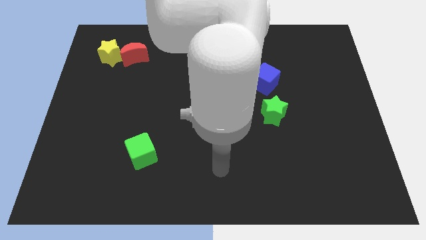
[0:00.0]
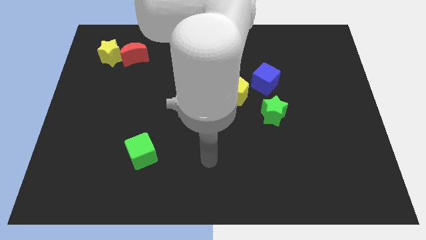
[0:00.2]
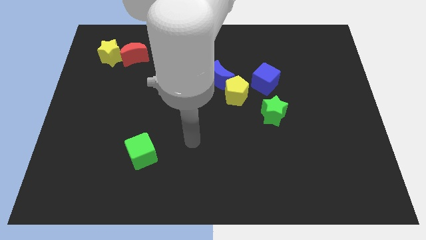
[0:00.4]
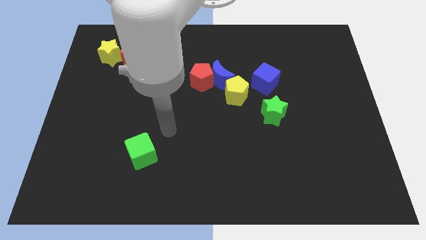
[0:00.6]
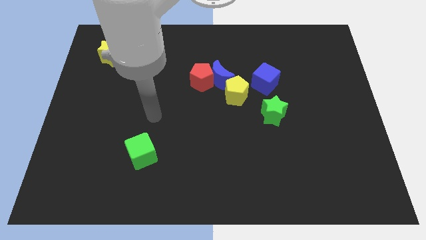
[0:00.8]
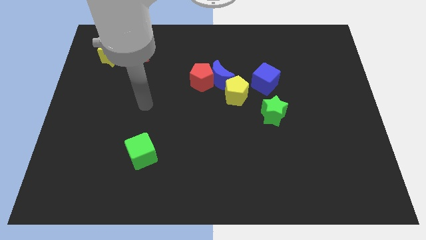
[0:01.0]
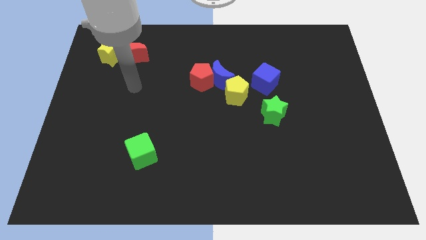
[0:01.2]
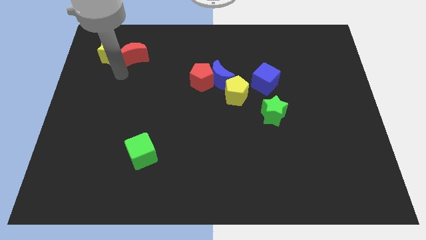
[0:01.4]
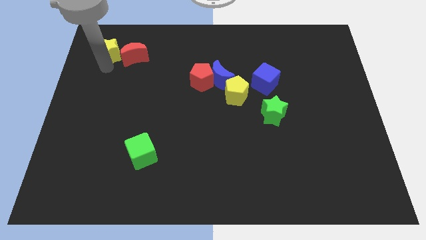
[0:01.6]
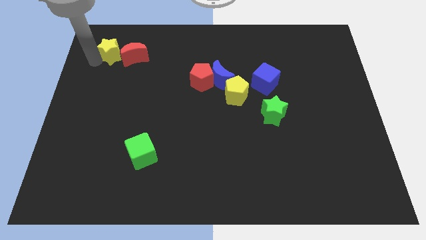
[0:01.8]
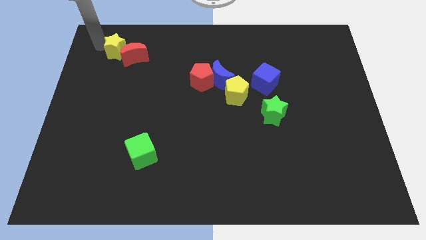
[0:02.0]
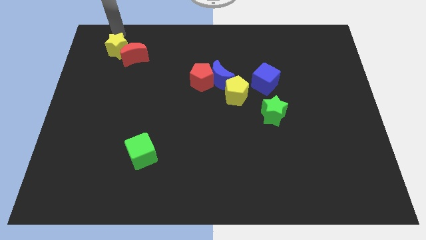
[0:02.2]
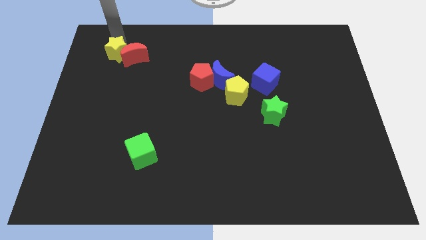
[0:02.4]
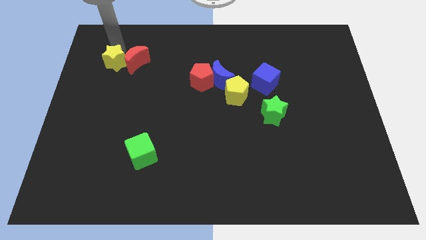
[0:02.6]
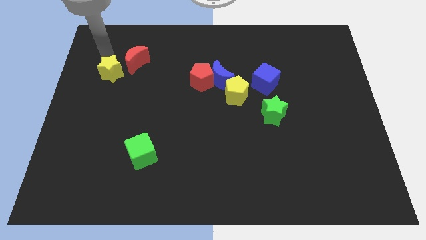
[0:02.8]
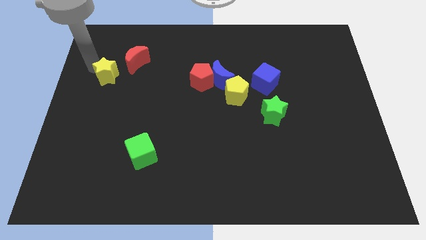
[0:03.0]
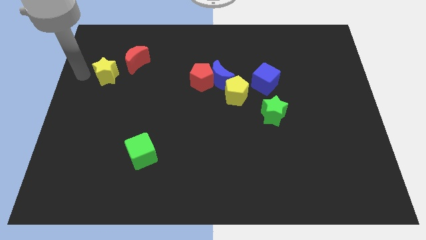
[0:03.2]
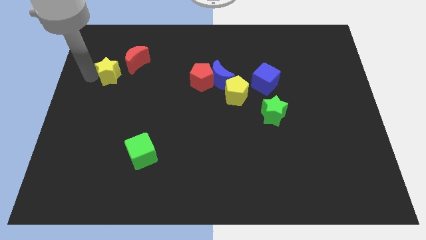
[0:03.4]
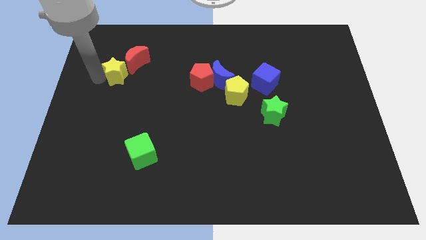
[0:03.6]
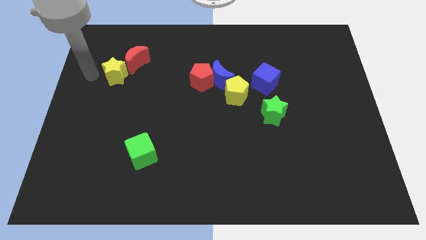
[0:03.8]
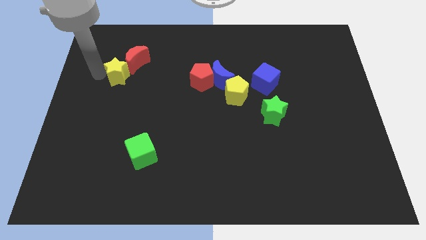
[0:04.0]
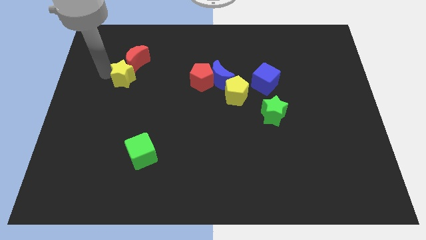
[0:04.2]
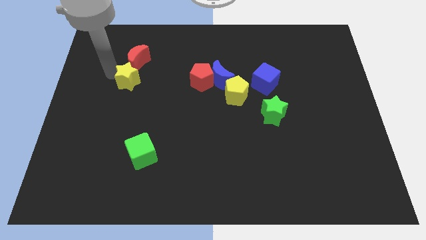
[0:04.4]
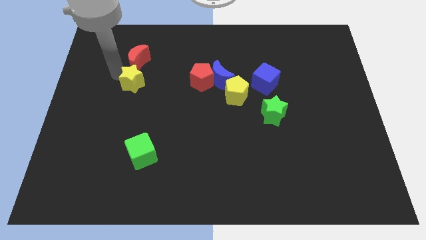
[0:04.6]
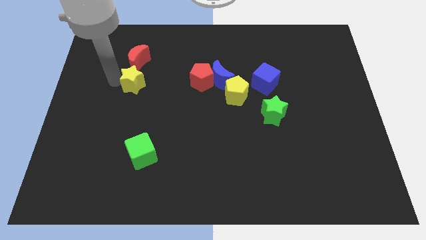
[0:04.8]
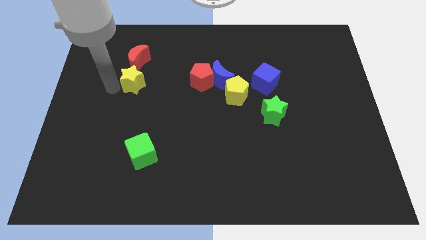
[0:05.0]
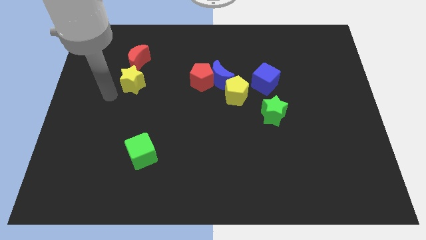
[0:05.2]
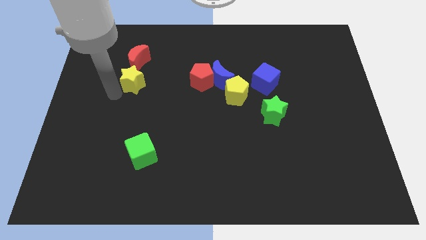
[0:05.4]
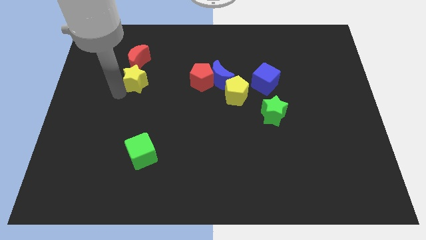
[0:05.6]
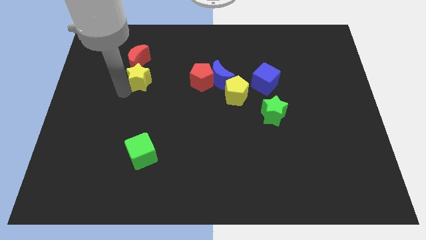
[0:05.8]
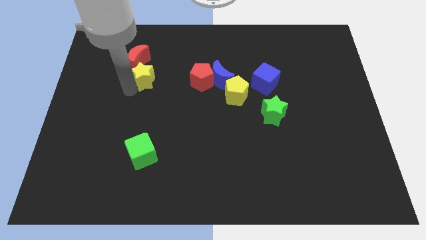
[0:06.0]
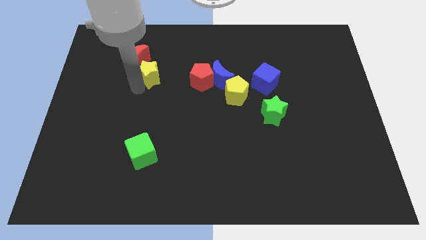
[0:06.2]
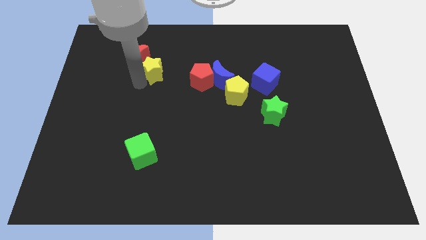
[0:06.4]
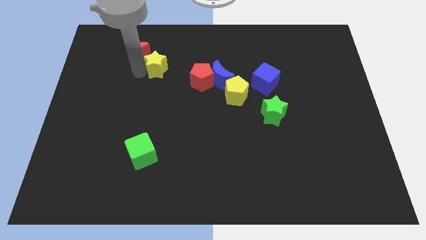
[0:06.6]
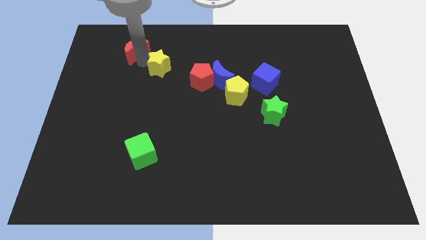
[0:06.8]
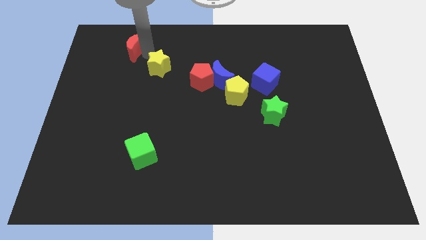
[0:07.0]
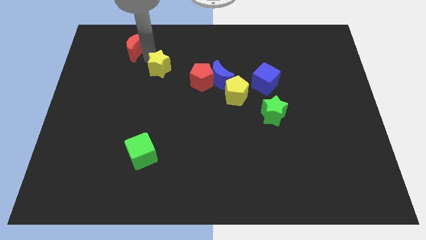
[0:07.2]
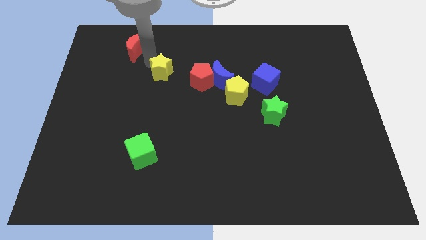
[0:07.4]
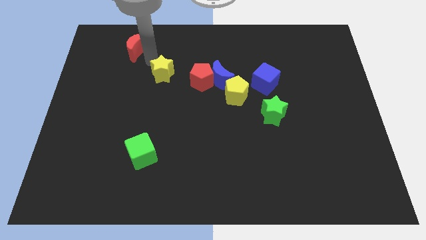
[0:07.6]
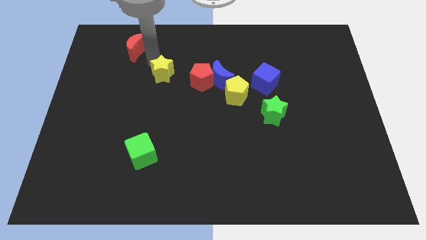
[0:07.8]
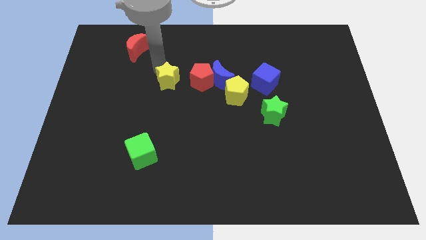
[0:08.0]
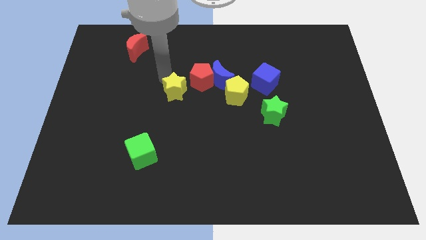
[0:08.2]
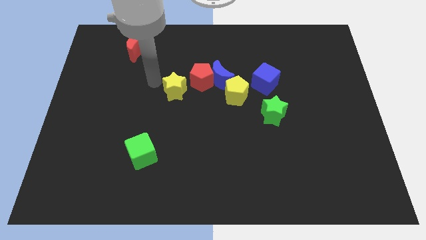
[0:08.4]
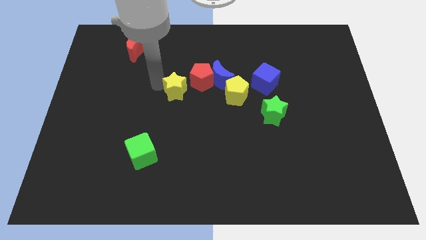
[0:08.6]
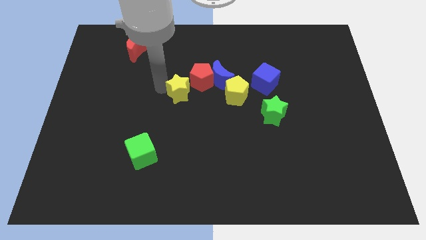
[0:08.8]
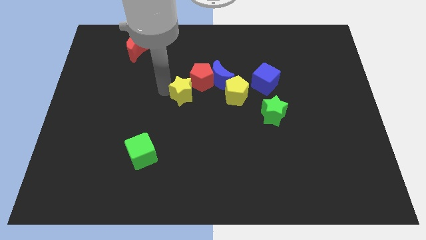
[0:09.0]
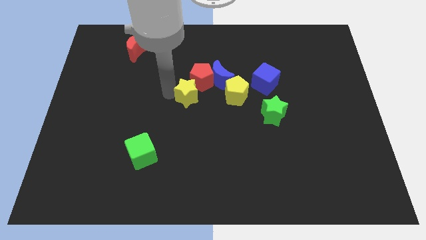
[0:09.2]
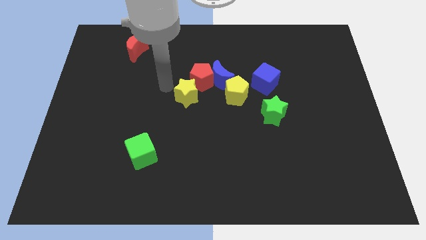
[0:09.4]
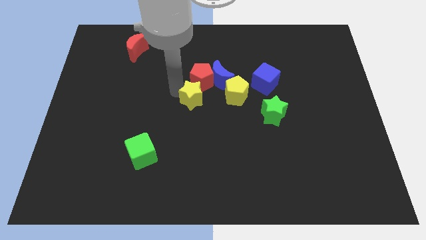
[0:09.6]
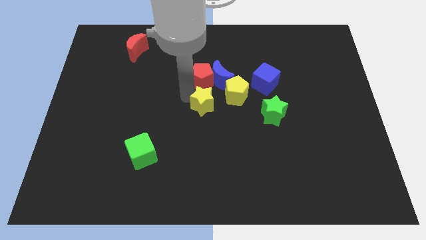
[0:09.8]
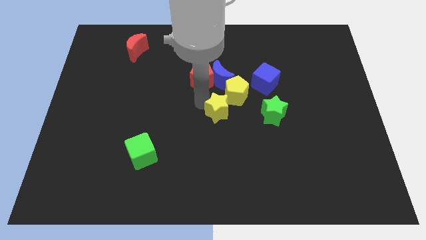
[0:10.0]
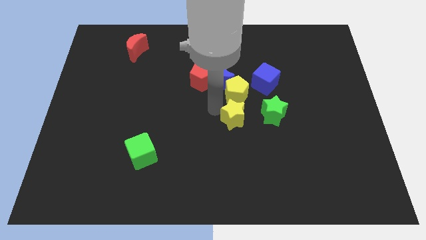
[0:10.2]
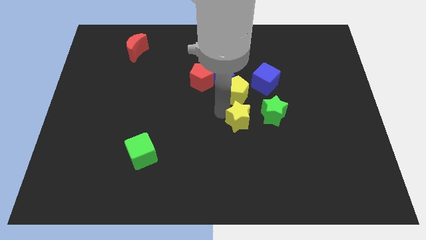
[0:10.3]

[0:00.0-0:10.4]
push the yellow star diagonally down and to the left of the green star

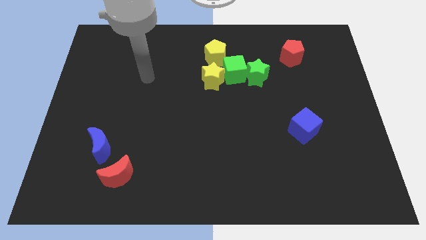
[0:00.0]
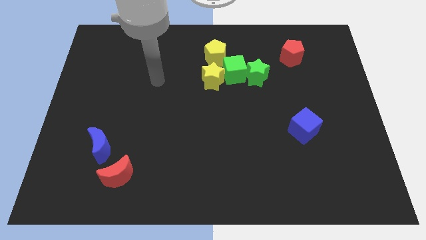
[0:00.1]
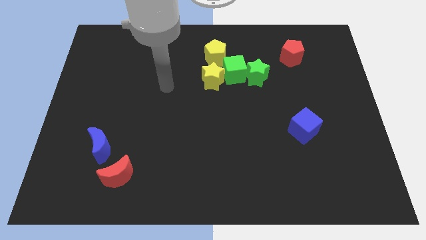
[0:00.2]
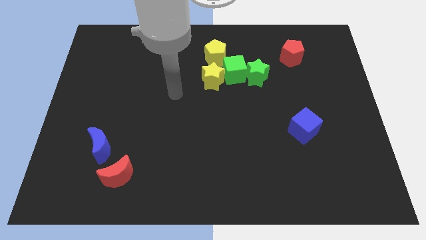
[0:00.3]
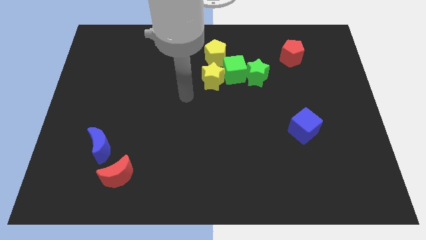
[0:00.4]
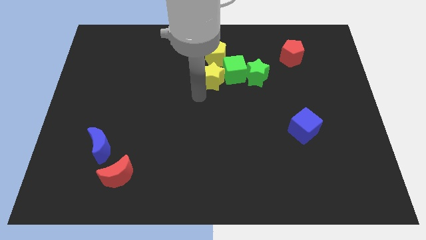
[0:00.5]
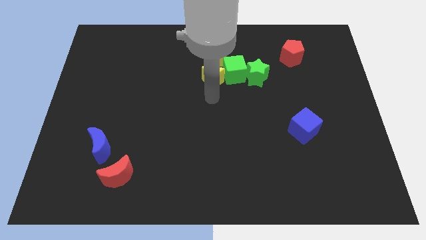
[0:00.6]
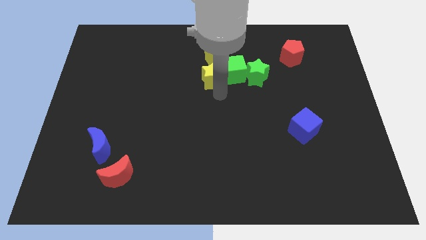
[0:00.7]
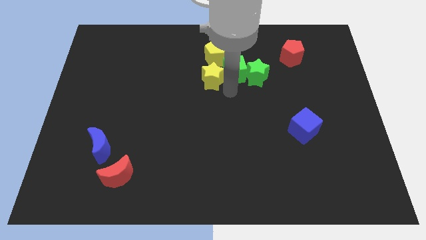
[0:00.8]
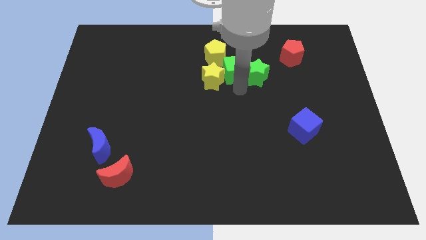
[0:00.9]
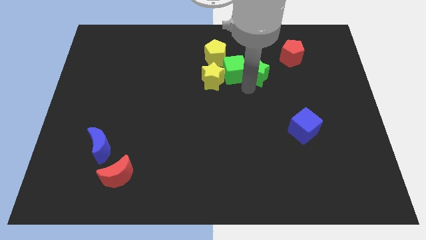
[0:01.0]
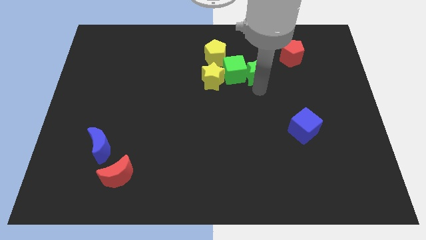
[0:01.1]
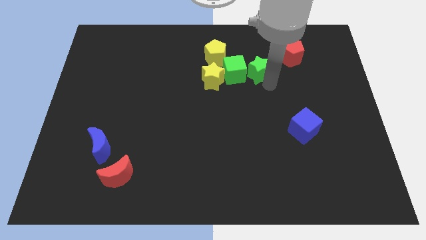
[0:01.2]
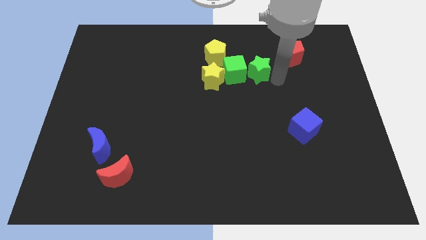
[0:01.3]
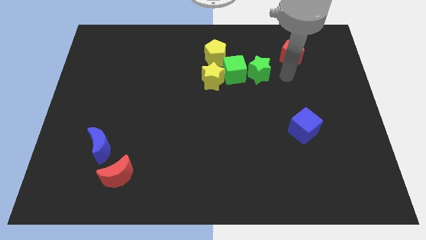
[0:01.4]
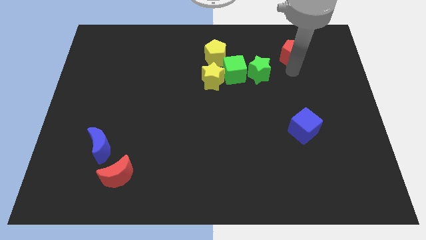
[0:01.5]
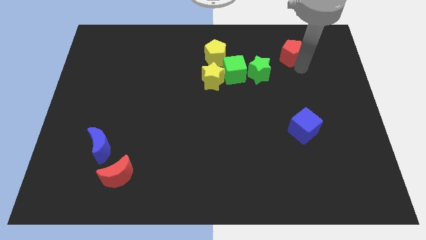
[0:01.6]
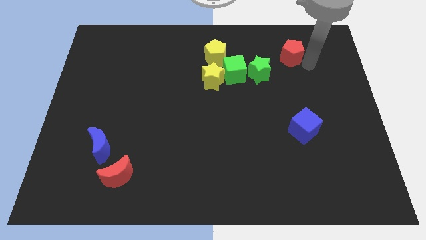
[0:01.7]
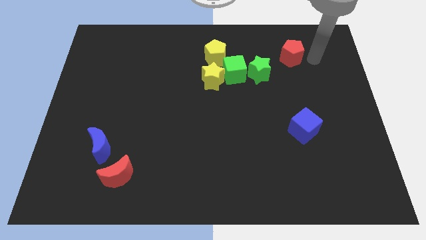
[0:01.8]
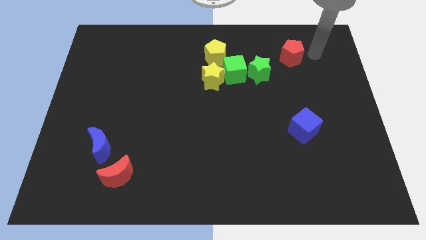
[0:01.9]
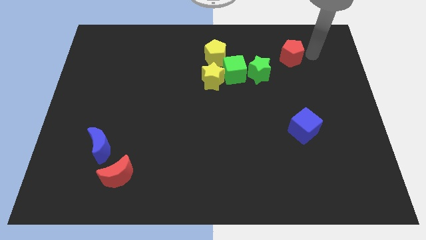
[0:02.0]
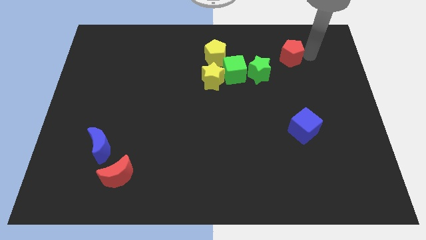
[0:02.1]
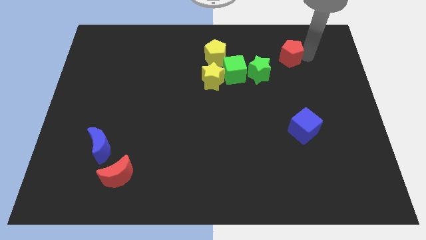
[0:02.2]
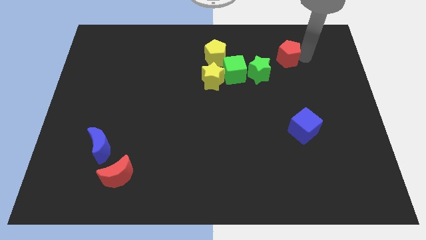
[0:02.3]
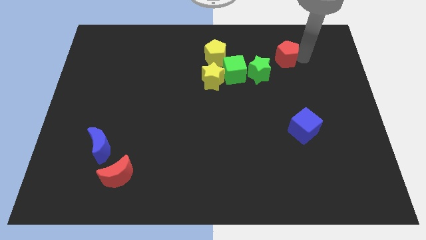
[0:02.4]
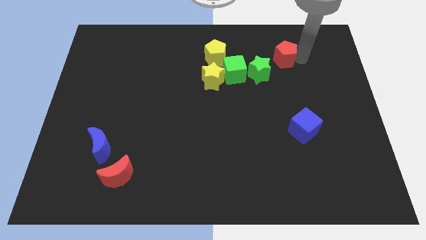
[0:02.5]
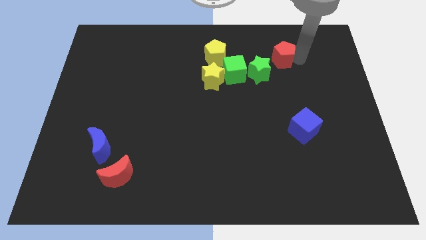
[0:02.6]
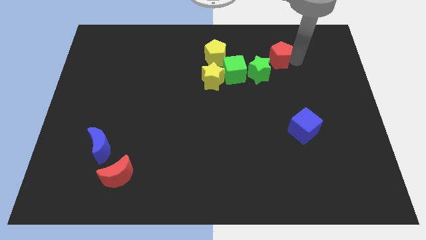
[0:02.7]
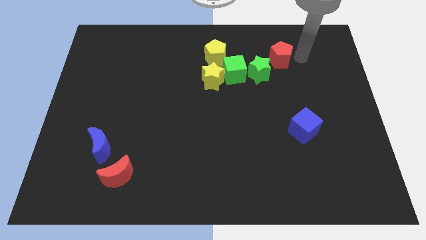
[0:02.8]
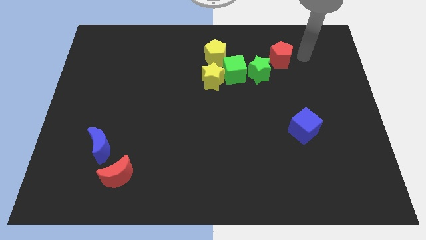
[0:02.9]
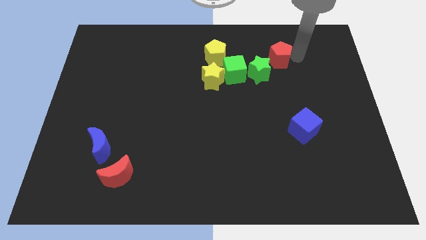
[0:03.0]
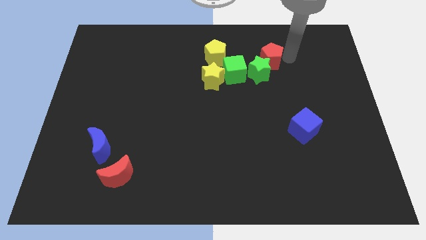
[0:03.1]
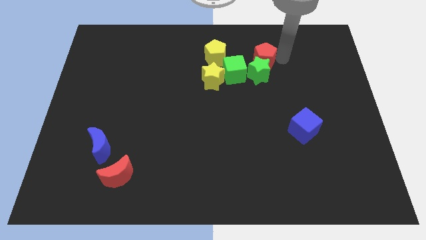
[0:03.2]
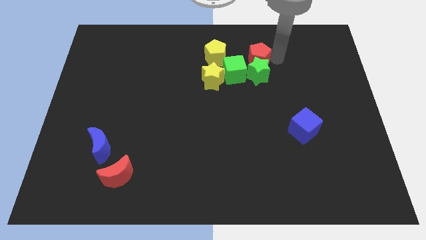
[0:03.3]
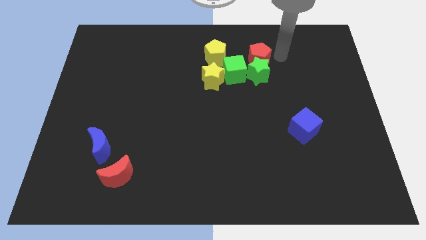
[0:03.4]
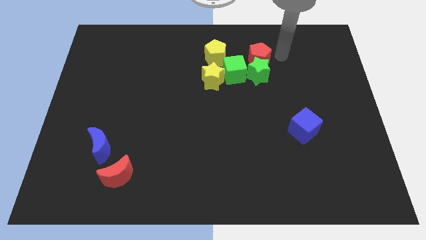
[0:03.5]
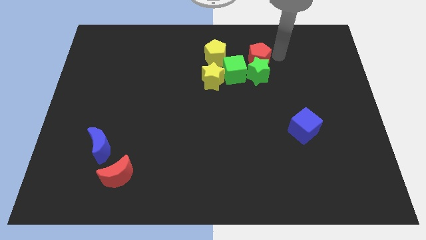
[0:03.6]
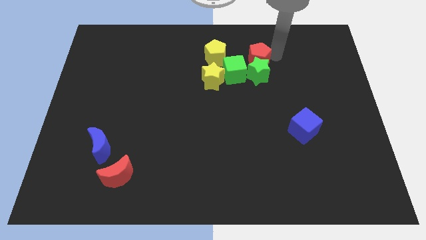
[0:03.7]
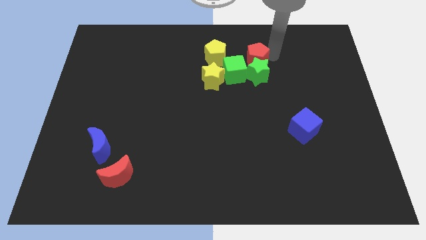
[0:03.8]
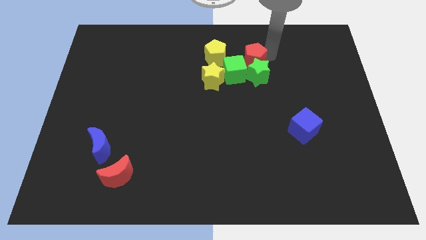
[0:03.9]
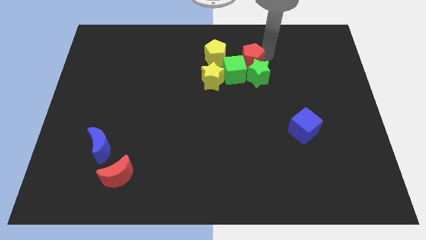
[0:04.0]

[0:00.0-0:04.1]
put the red pentagon to the top right of the yellow star
